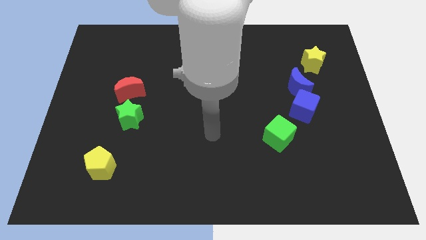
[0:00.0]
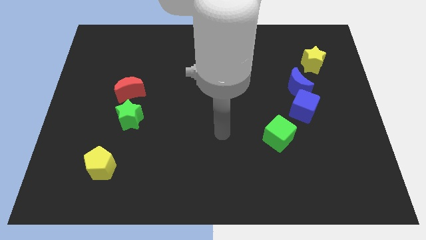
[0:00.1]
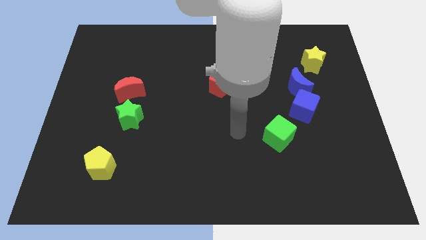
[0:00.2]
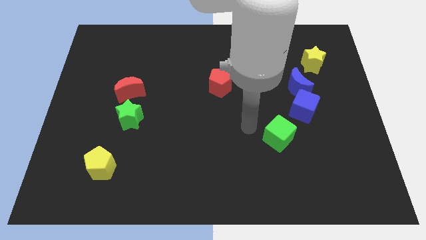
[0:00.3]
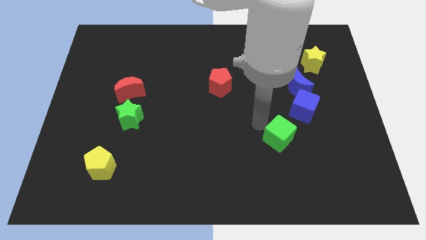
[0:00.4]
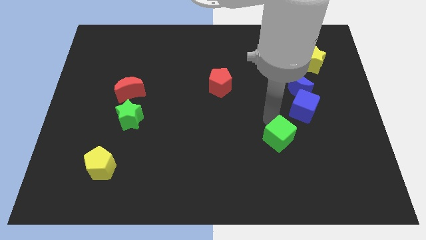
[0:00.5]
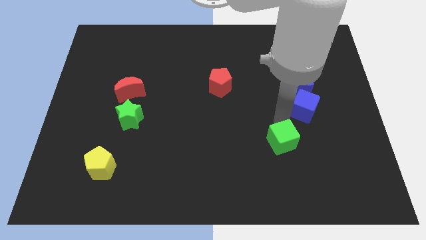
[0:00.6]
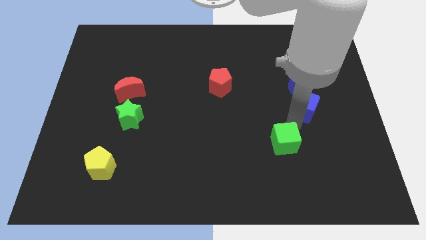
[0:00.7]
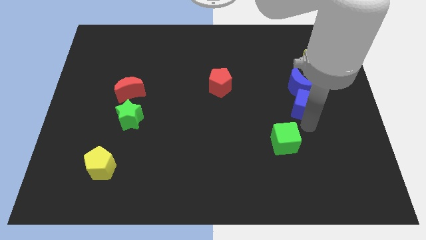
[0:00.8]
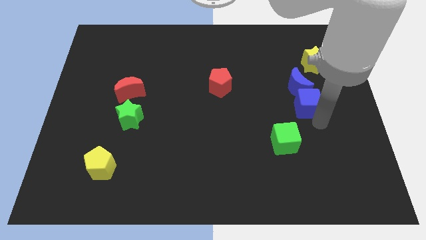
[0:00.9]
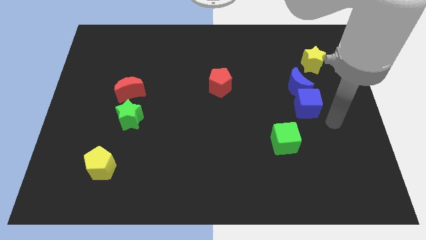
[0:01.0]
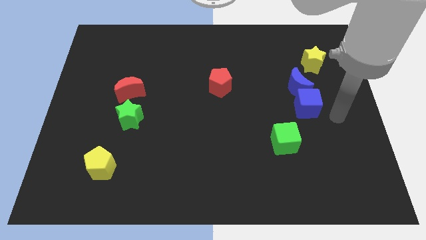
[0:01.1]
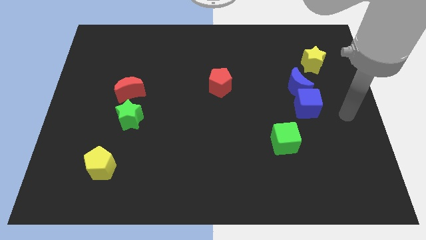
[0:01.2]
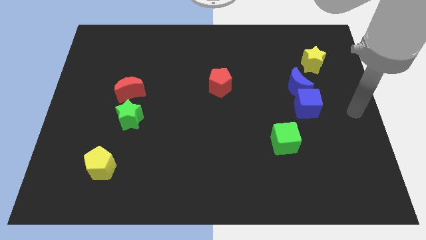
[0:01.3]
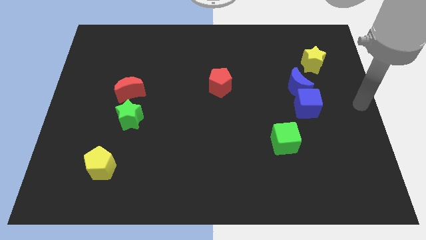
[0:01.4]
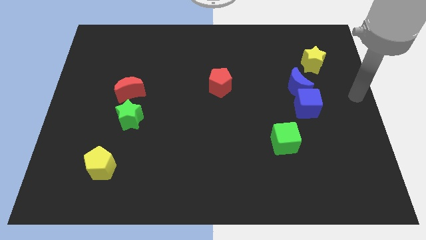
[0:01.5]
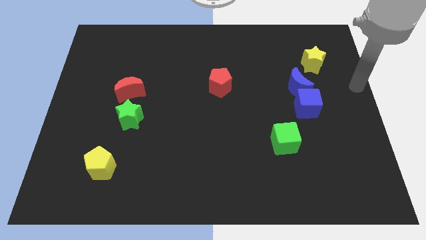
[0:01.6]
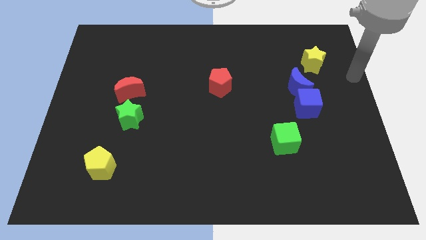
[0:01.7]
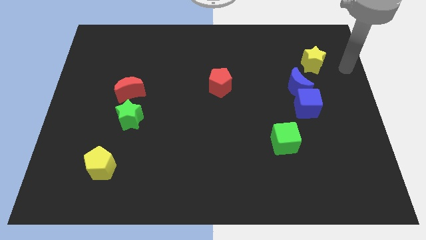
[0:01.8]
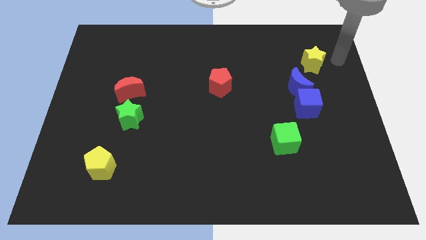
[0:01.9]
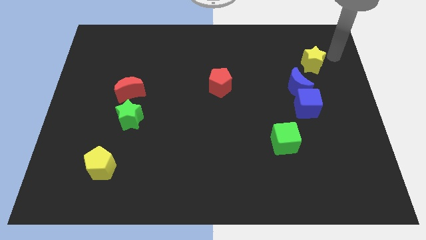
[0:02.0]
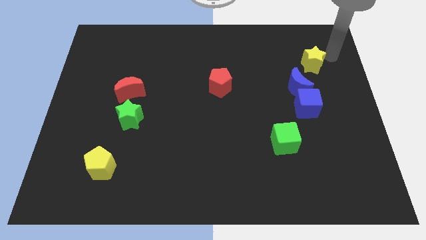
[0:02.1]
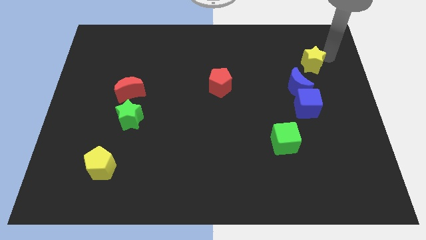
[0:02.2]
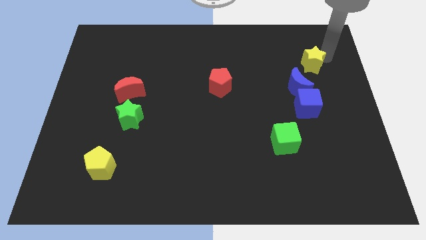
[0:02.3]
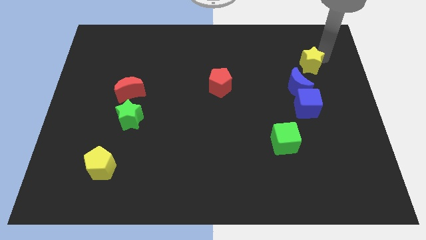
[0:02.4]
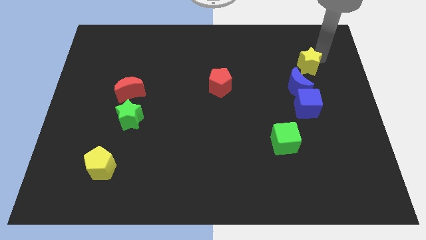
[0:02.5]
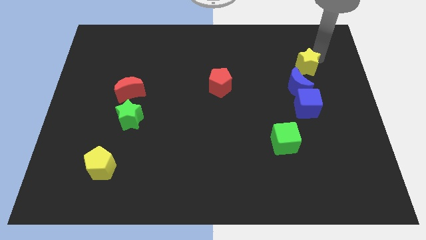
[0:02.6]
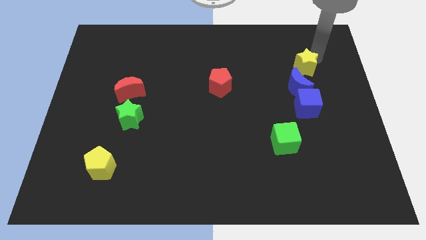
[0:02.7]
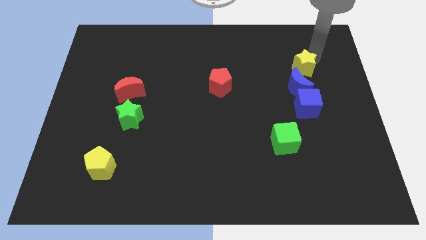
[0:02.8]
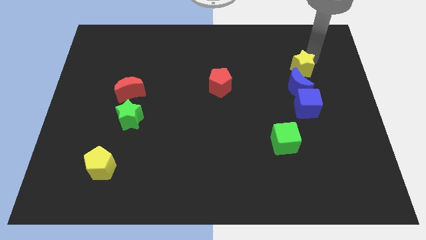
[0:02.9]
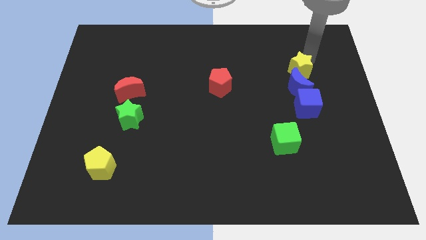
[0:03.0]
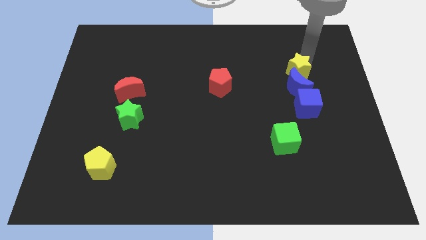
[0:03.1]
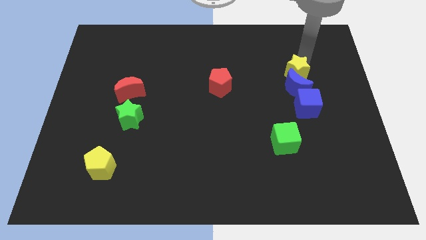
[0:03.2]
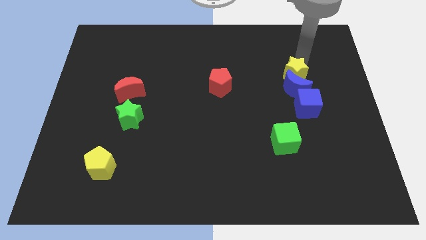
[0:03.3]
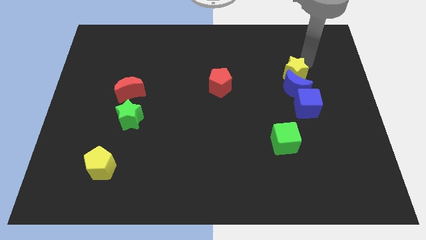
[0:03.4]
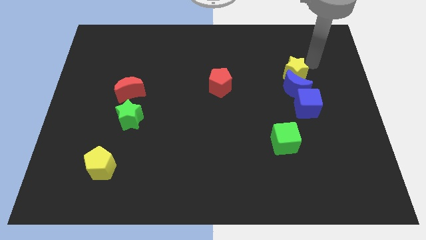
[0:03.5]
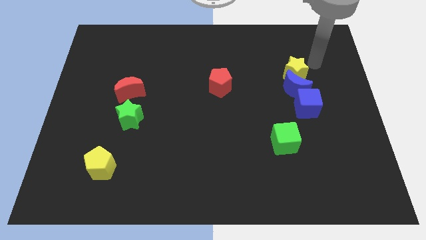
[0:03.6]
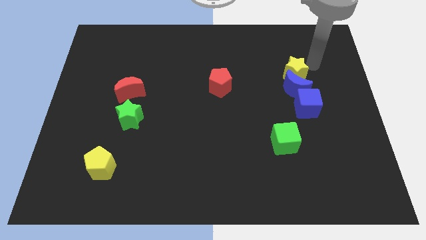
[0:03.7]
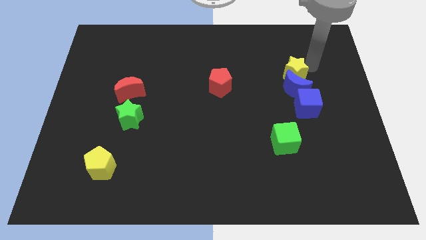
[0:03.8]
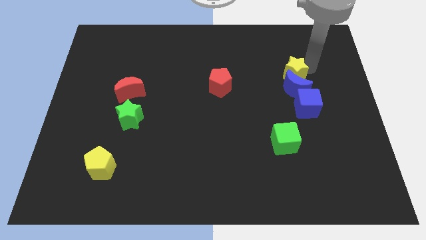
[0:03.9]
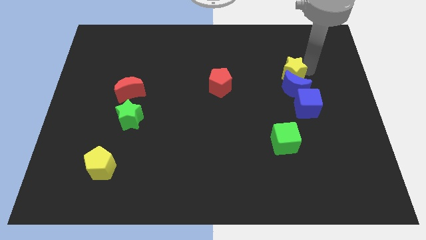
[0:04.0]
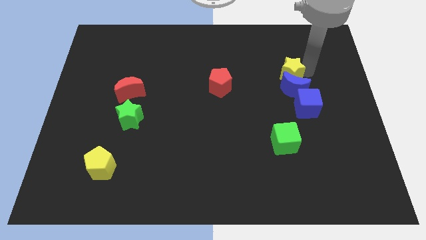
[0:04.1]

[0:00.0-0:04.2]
move the yellow star somewhat downwards and left

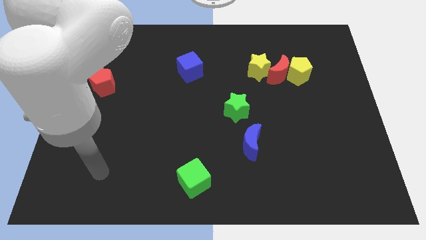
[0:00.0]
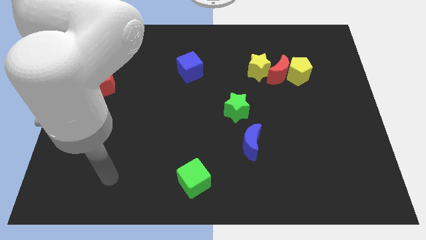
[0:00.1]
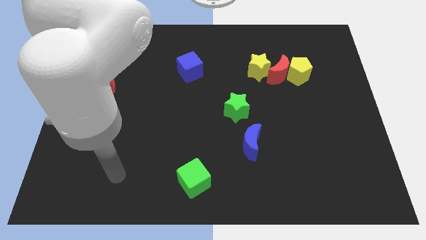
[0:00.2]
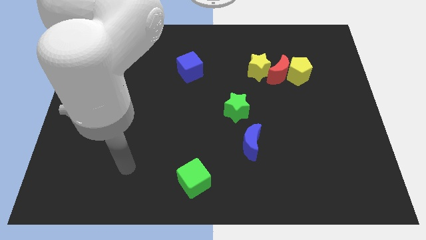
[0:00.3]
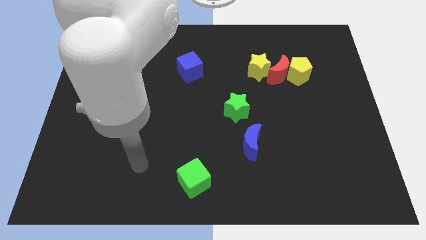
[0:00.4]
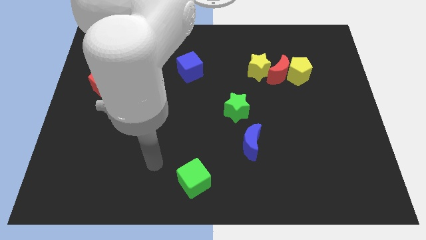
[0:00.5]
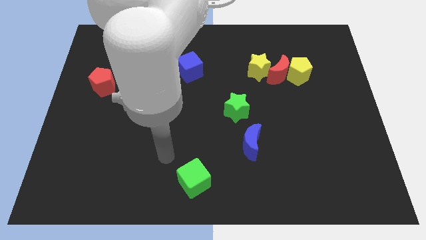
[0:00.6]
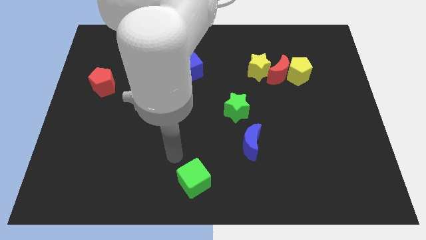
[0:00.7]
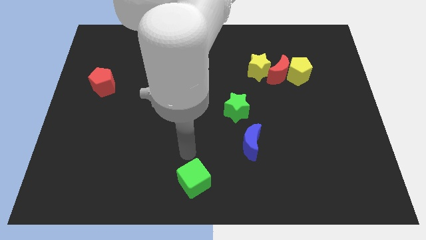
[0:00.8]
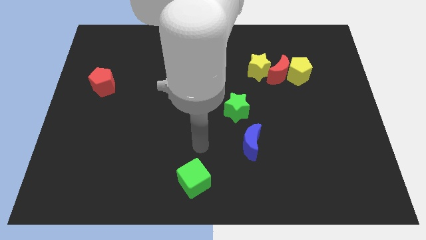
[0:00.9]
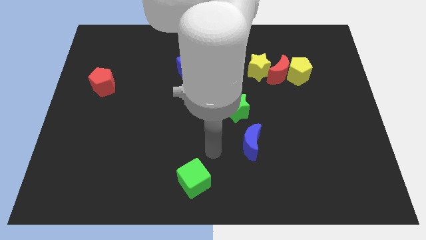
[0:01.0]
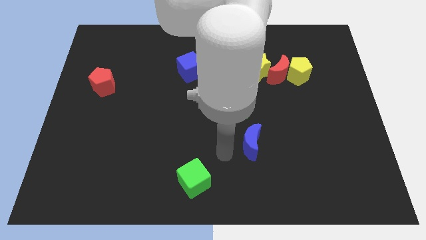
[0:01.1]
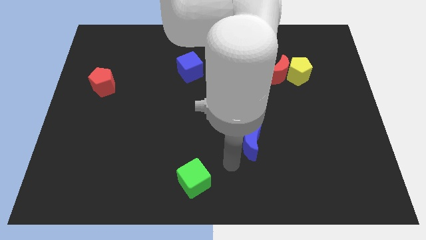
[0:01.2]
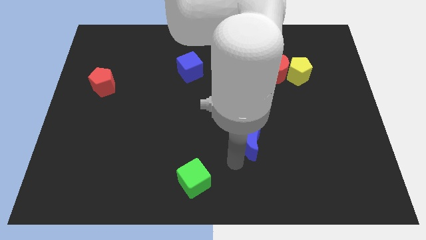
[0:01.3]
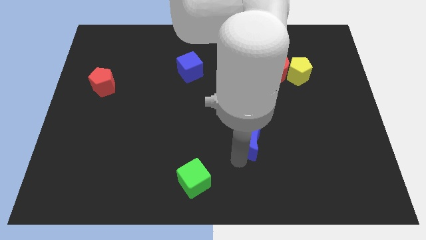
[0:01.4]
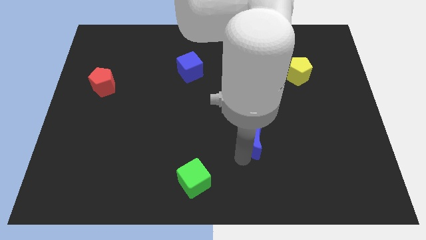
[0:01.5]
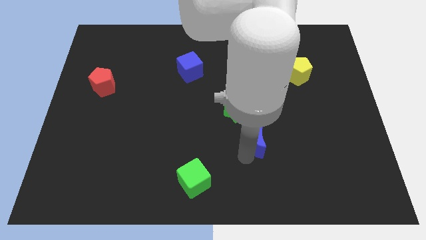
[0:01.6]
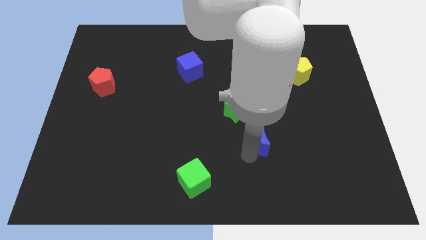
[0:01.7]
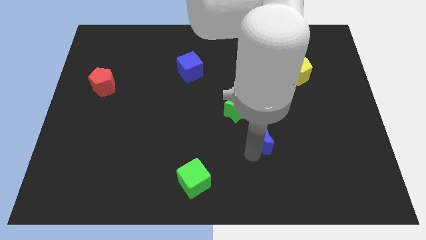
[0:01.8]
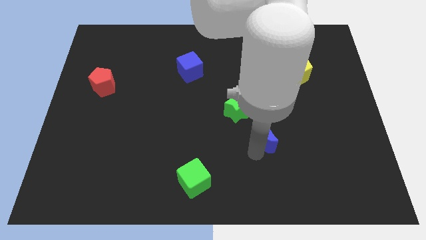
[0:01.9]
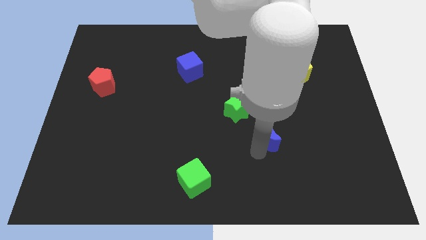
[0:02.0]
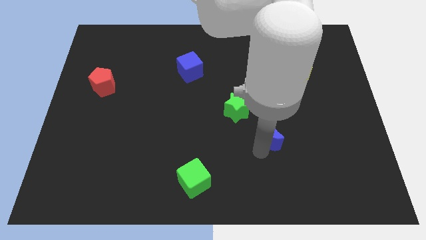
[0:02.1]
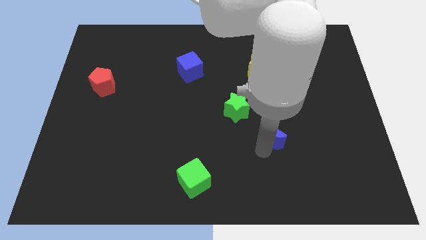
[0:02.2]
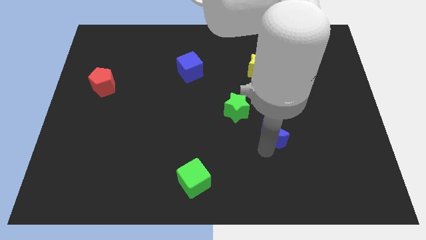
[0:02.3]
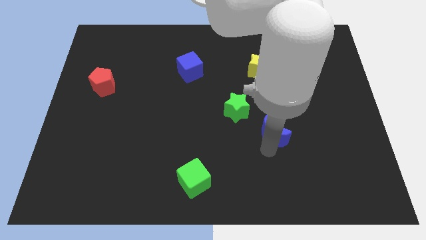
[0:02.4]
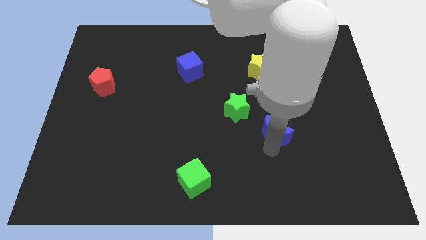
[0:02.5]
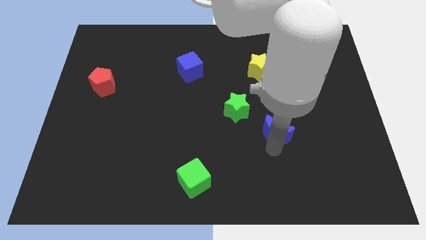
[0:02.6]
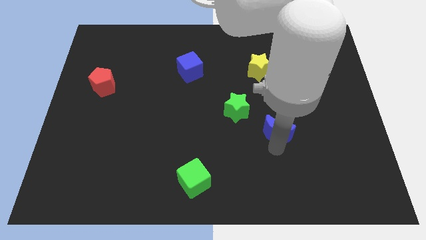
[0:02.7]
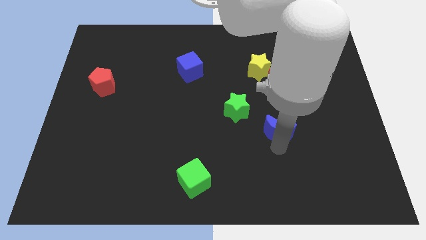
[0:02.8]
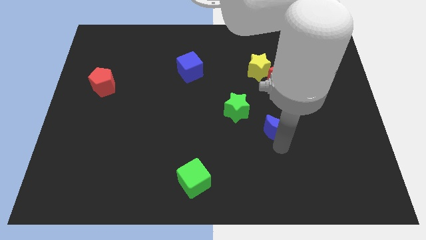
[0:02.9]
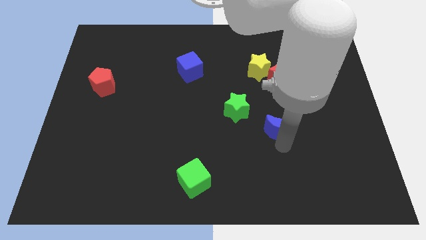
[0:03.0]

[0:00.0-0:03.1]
slide the blue moon diagonally up and right somewhat

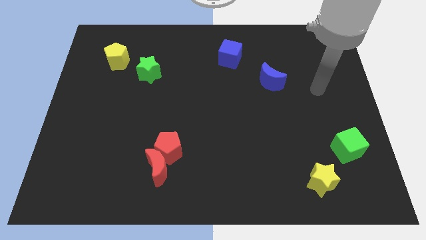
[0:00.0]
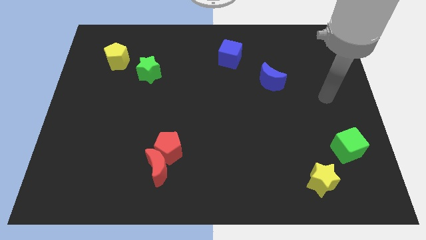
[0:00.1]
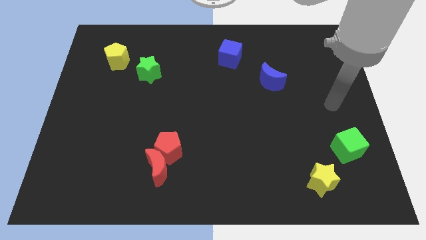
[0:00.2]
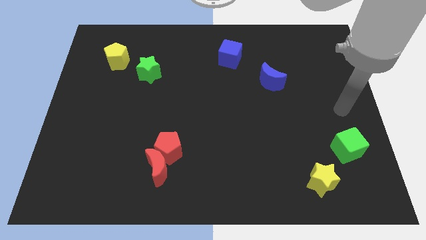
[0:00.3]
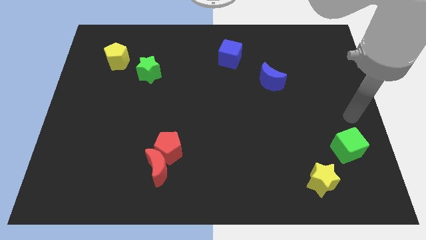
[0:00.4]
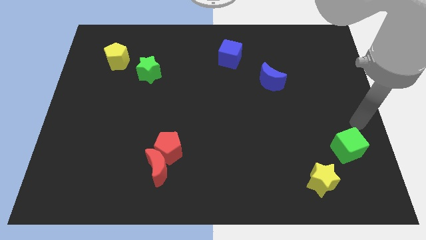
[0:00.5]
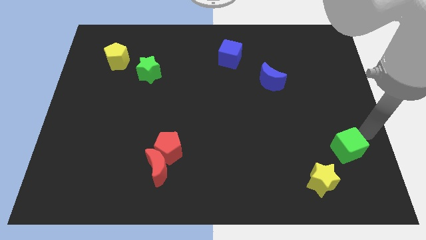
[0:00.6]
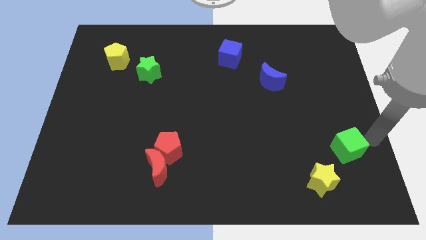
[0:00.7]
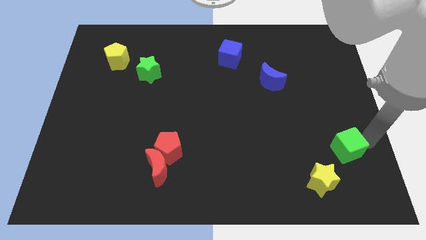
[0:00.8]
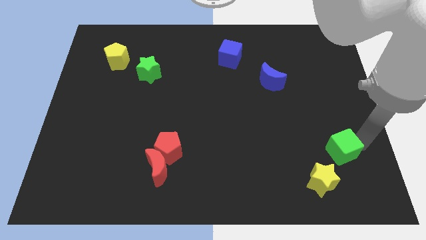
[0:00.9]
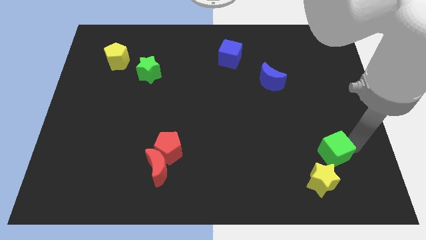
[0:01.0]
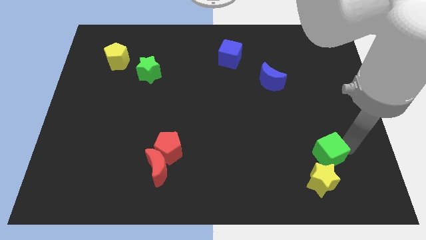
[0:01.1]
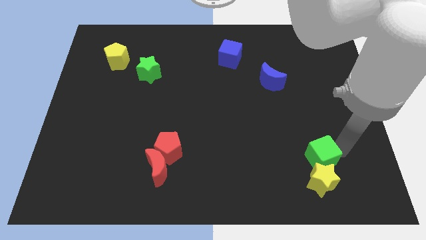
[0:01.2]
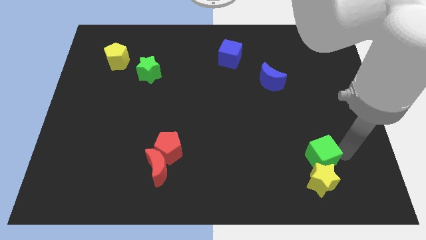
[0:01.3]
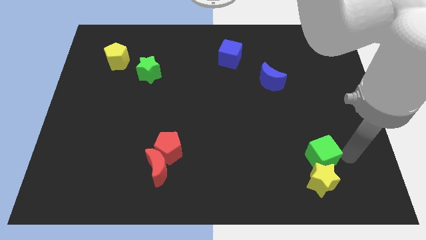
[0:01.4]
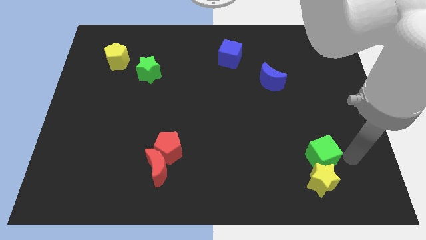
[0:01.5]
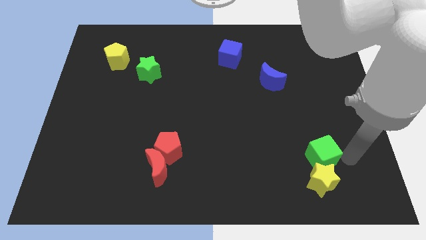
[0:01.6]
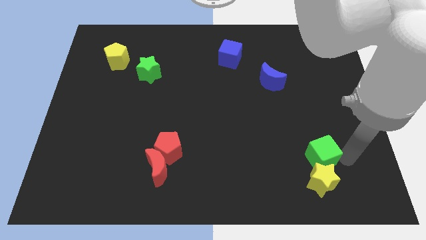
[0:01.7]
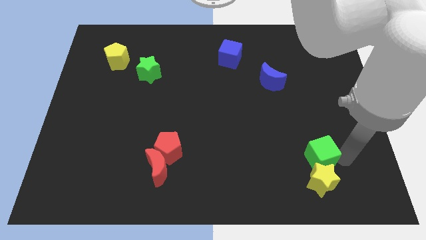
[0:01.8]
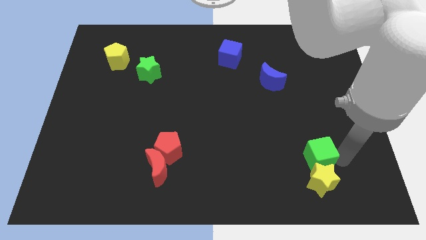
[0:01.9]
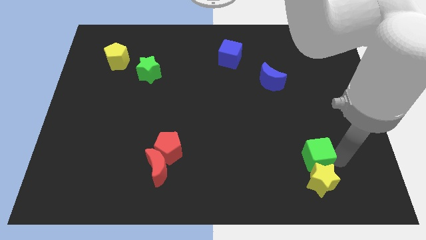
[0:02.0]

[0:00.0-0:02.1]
move the green cube to the left slightly
